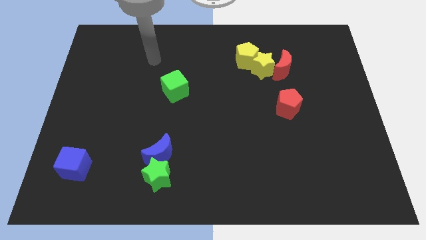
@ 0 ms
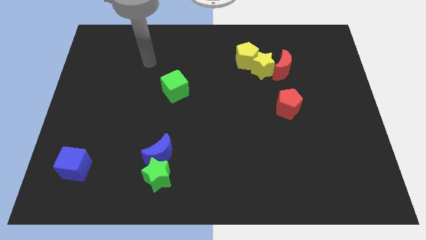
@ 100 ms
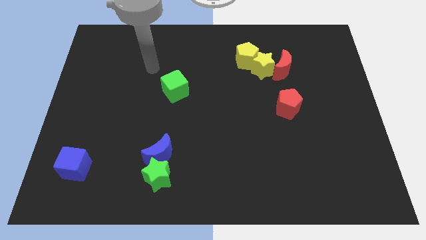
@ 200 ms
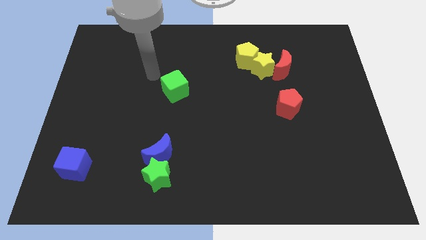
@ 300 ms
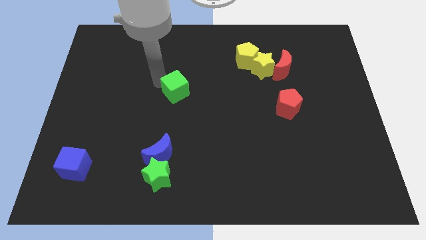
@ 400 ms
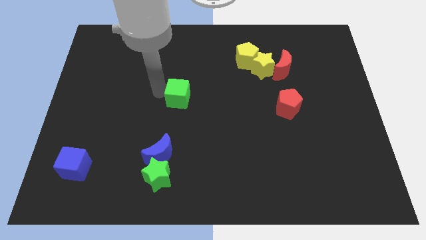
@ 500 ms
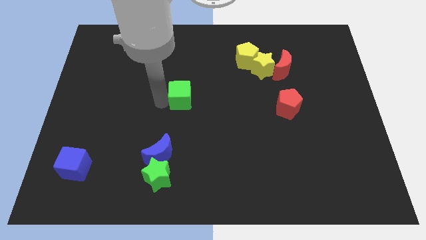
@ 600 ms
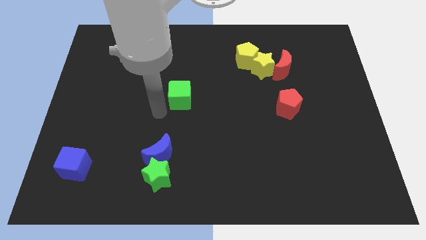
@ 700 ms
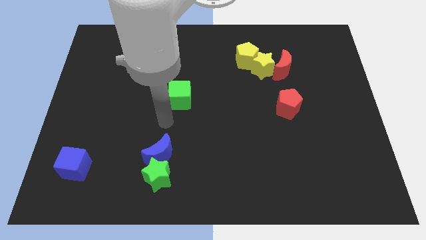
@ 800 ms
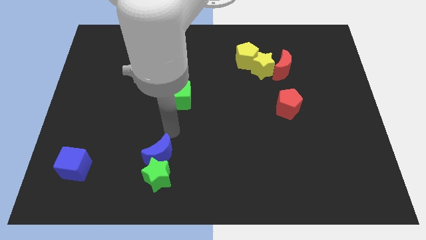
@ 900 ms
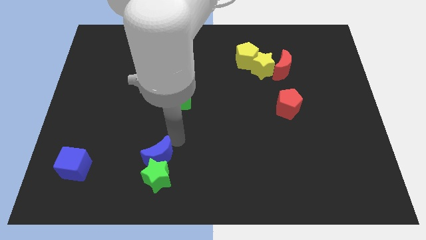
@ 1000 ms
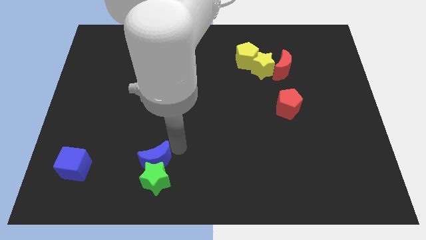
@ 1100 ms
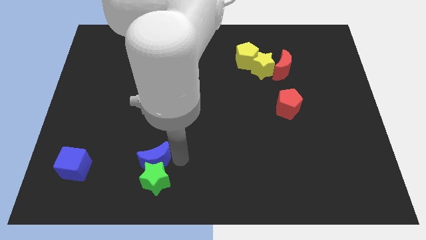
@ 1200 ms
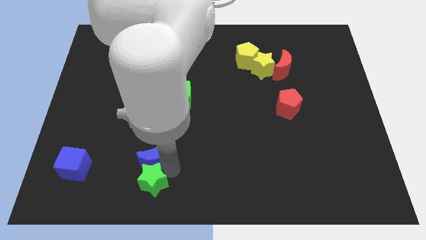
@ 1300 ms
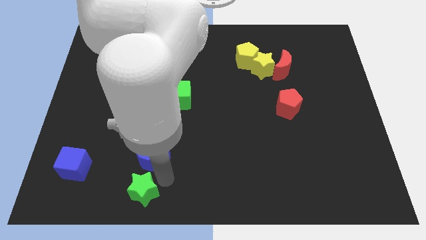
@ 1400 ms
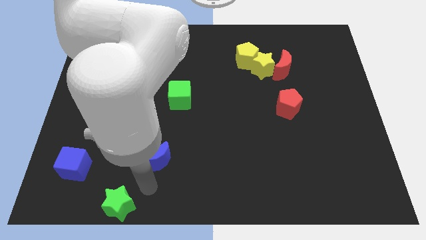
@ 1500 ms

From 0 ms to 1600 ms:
pull the blue moon apart from the green star

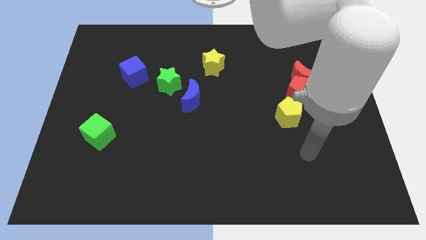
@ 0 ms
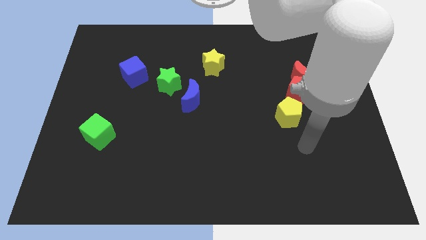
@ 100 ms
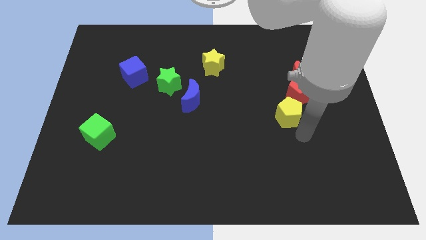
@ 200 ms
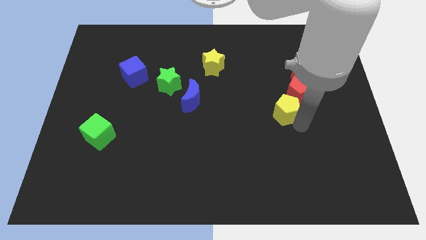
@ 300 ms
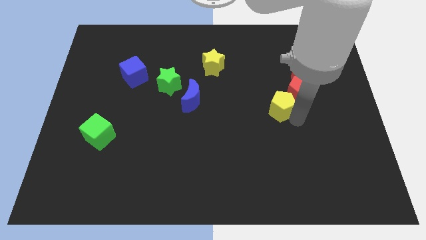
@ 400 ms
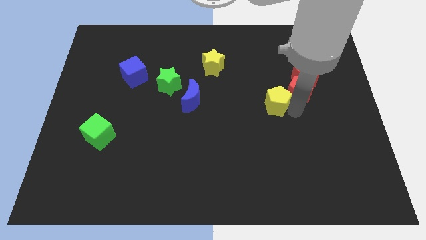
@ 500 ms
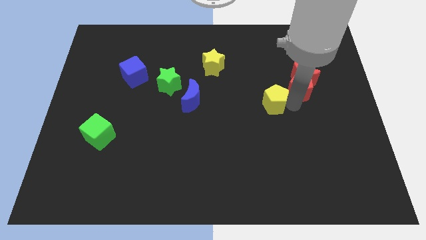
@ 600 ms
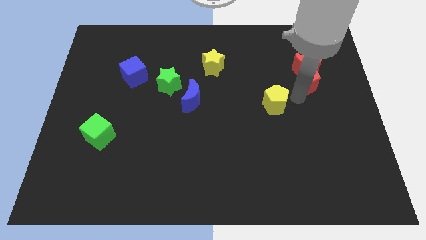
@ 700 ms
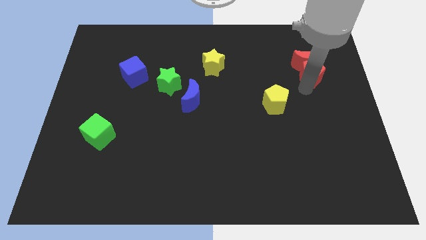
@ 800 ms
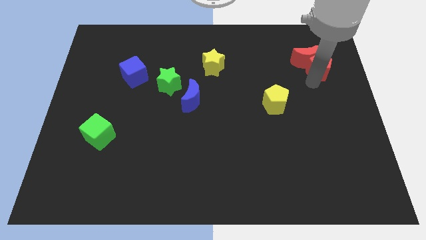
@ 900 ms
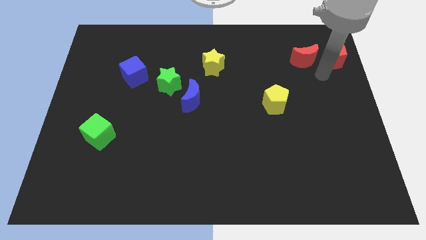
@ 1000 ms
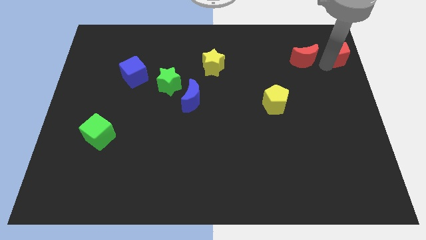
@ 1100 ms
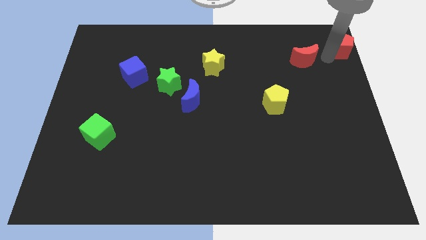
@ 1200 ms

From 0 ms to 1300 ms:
separate the red moon from the red pentagon

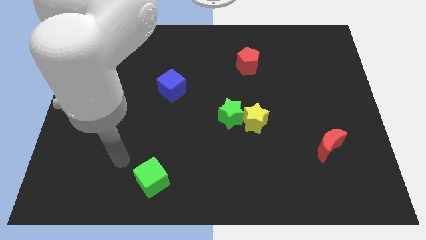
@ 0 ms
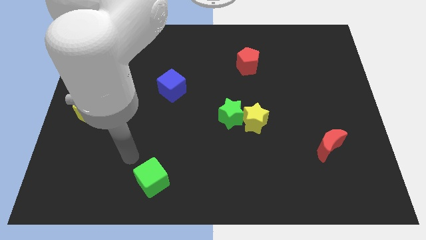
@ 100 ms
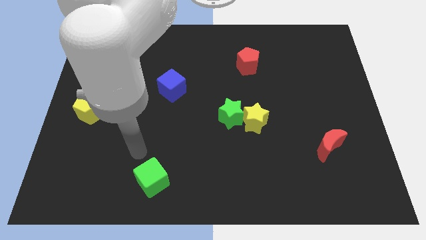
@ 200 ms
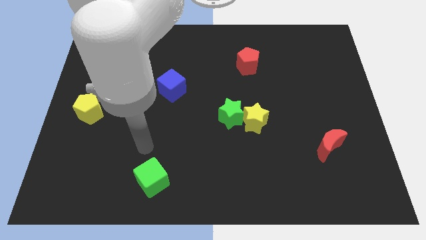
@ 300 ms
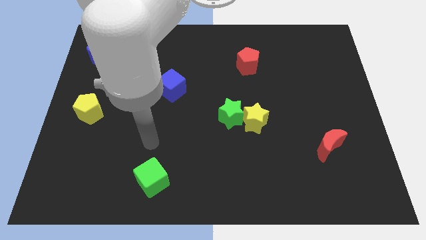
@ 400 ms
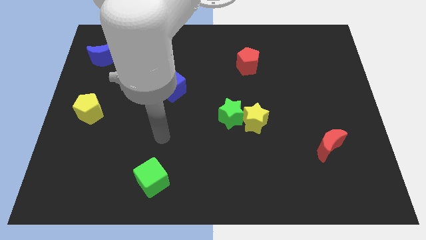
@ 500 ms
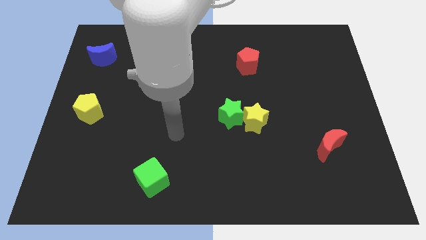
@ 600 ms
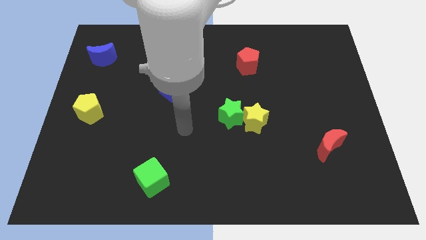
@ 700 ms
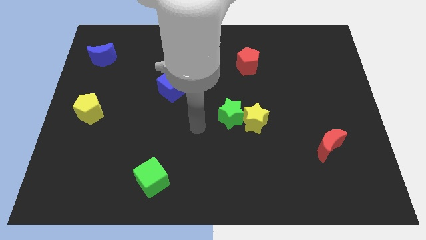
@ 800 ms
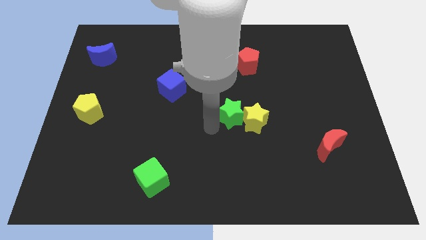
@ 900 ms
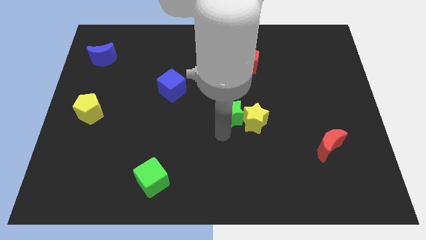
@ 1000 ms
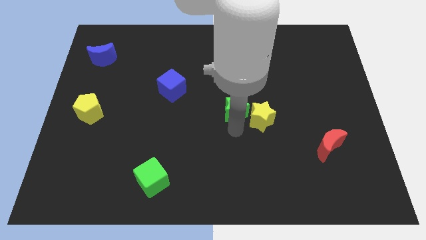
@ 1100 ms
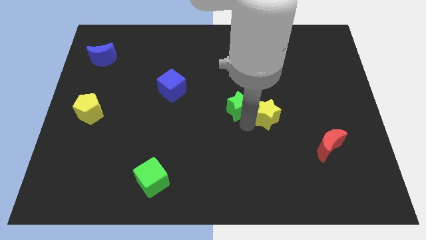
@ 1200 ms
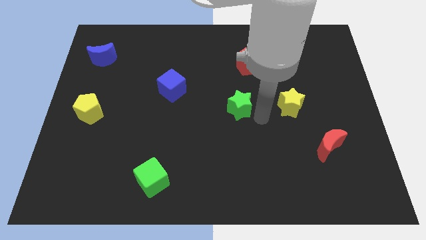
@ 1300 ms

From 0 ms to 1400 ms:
move the green star away from the yellow star

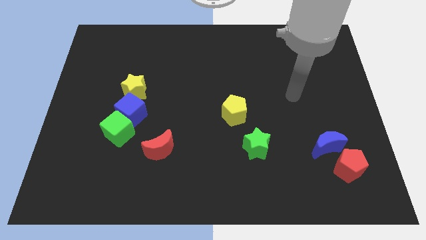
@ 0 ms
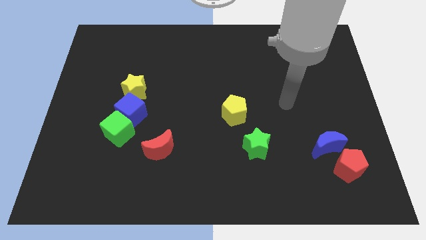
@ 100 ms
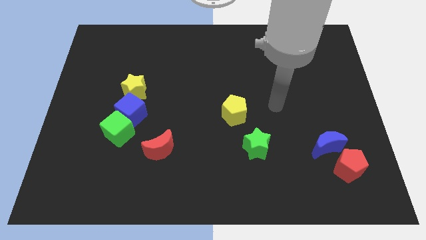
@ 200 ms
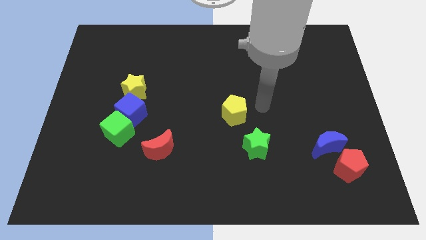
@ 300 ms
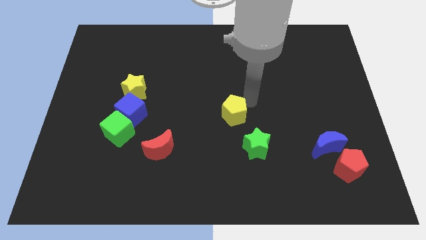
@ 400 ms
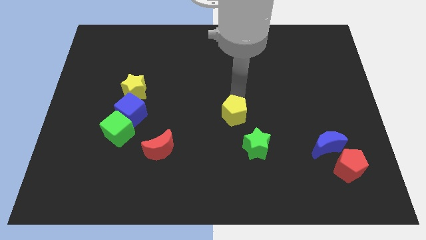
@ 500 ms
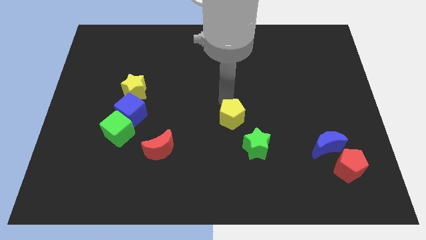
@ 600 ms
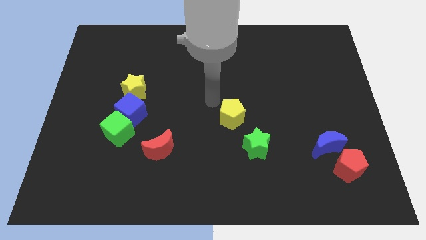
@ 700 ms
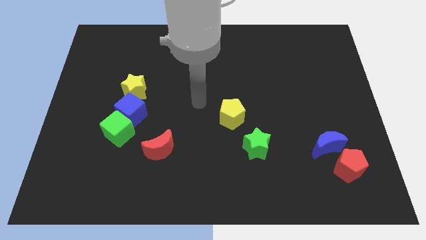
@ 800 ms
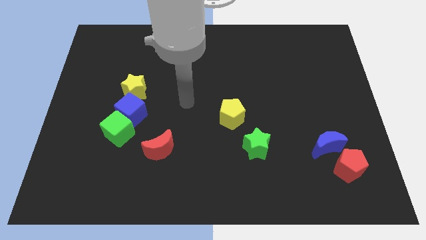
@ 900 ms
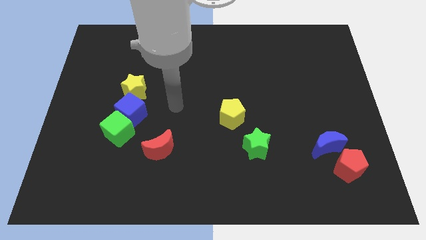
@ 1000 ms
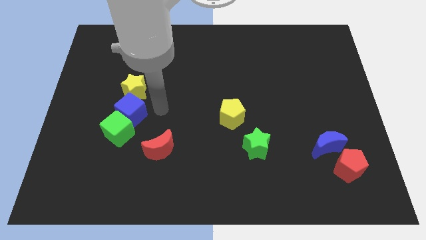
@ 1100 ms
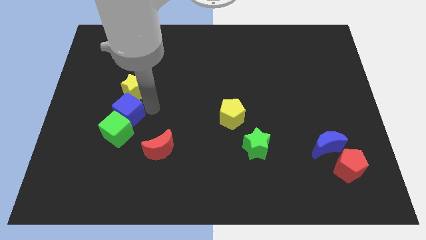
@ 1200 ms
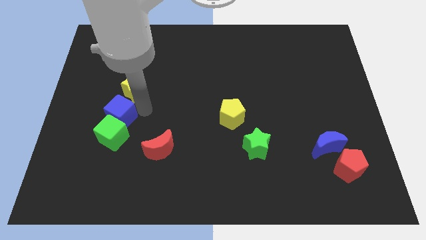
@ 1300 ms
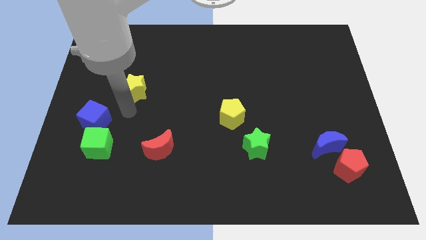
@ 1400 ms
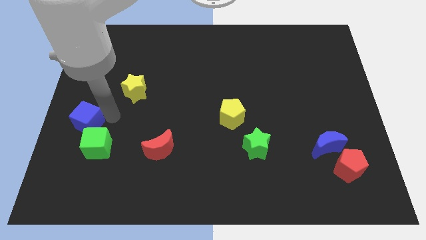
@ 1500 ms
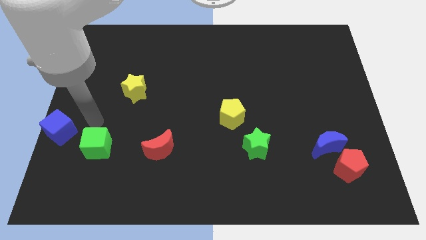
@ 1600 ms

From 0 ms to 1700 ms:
pull the green cube apart from the blue cube

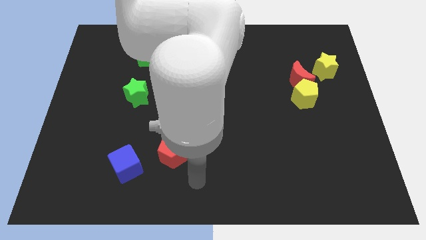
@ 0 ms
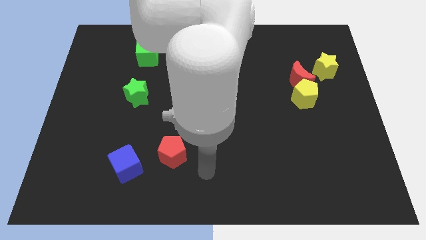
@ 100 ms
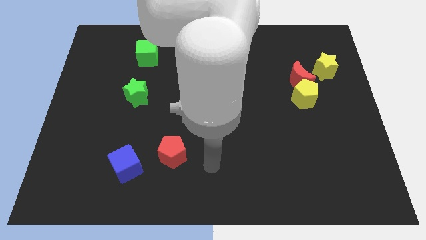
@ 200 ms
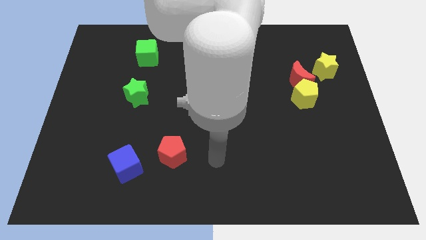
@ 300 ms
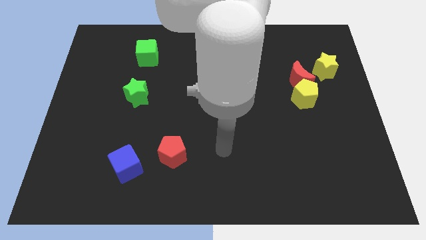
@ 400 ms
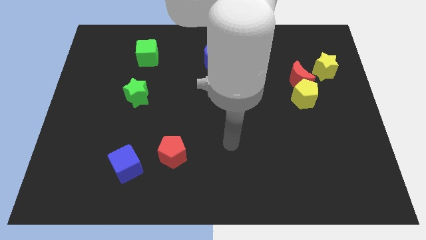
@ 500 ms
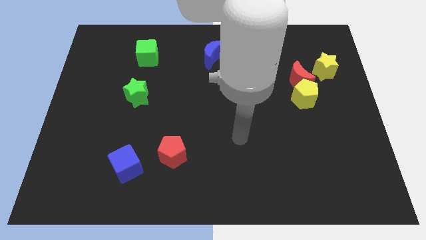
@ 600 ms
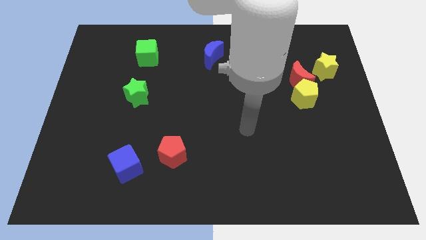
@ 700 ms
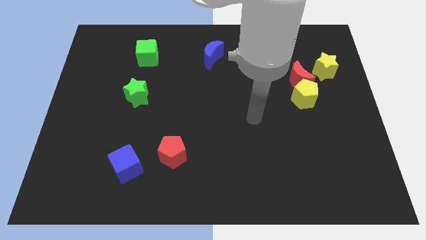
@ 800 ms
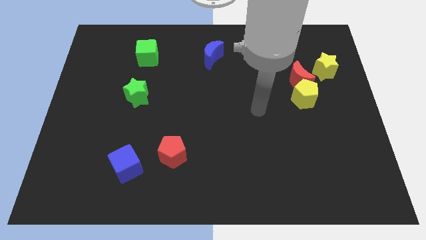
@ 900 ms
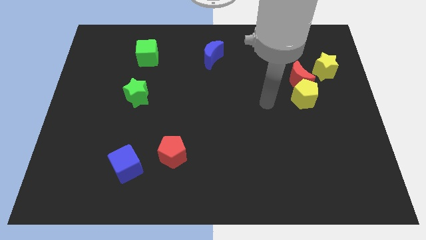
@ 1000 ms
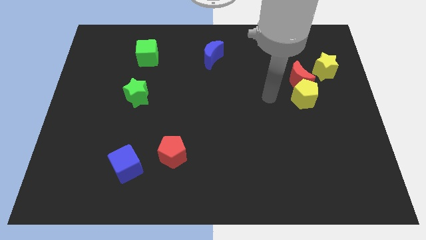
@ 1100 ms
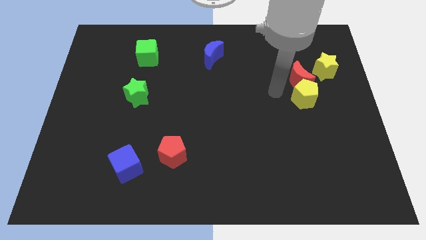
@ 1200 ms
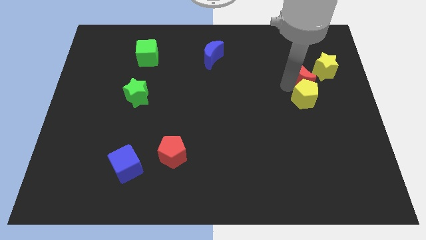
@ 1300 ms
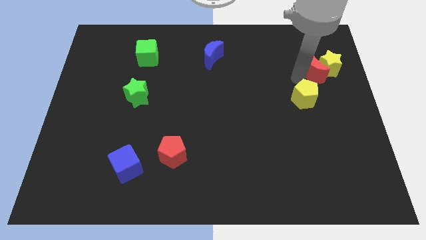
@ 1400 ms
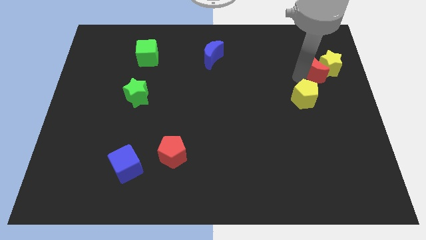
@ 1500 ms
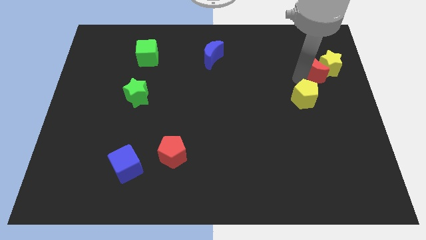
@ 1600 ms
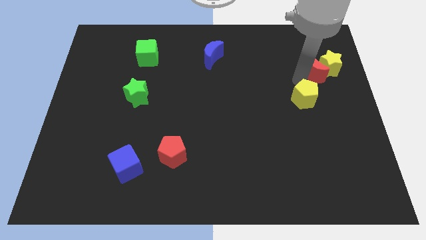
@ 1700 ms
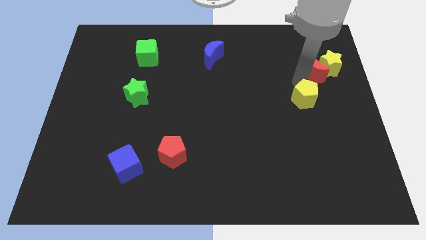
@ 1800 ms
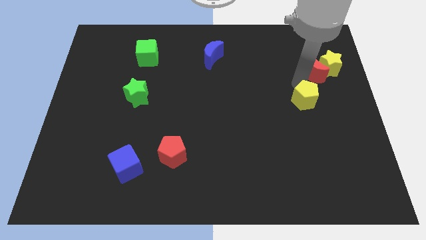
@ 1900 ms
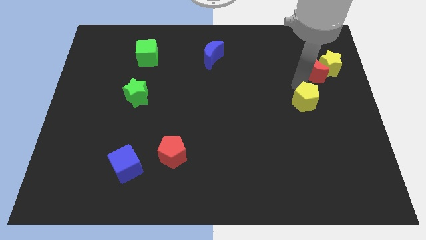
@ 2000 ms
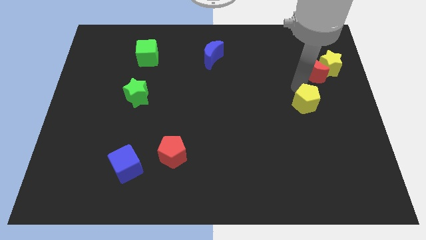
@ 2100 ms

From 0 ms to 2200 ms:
pull the yellow pentagon apart from the red moon

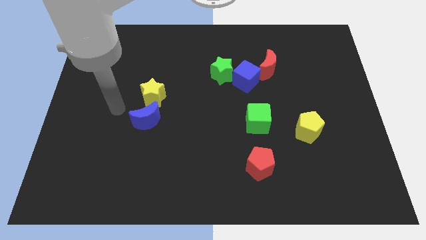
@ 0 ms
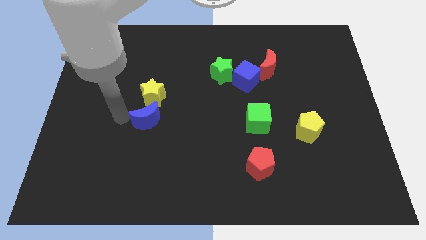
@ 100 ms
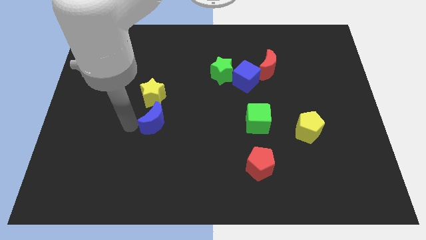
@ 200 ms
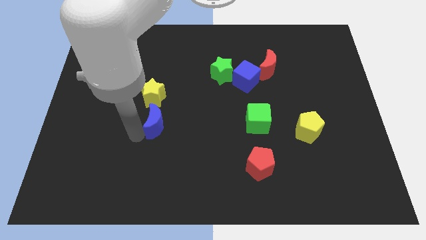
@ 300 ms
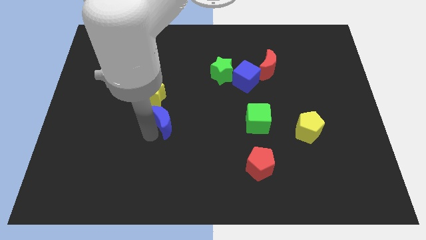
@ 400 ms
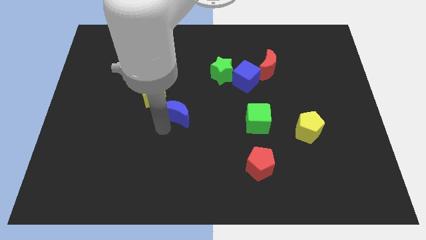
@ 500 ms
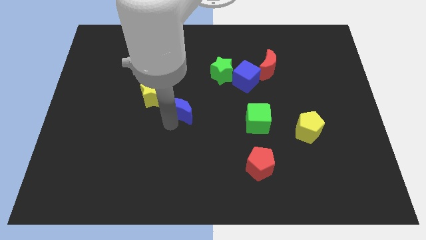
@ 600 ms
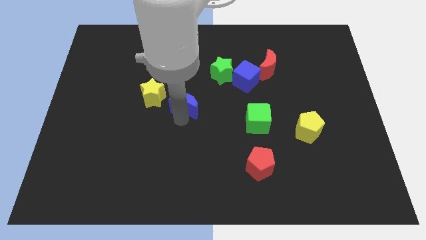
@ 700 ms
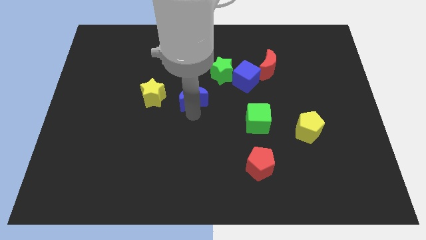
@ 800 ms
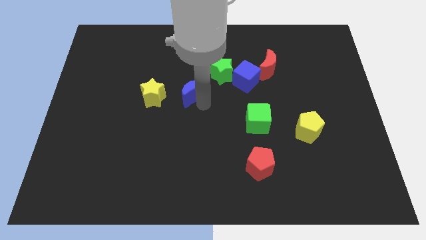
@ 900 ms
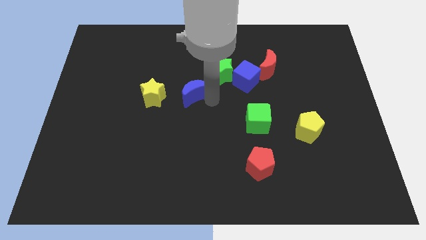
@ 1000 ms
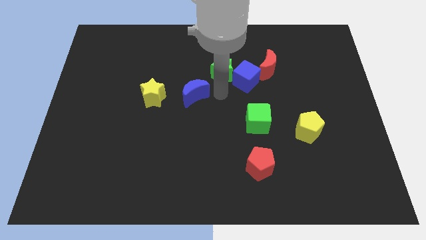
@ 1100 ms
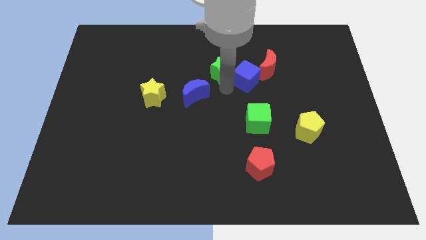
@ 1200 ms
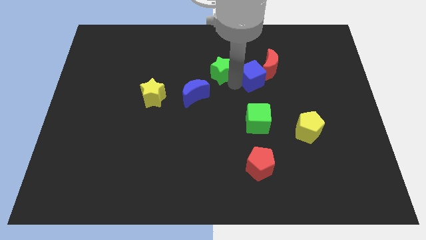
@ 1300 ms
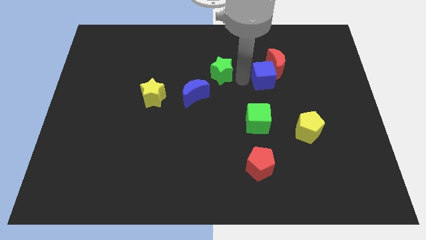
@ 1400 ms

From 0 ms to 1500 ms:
separate the green star from the blue cube
